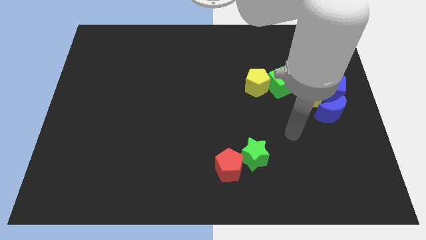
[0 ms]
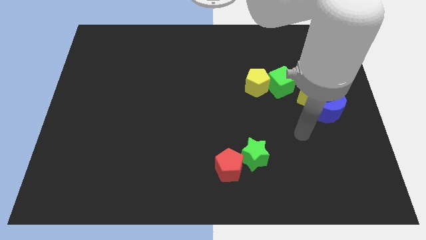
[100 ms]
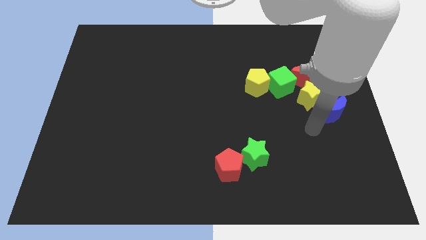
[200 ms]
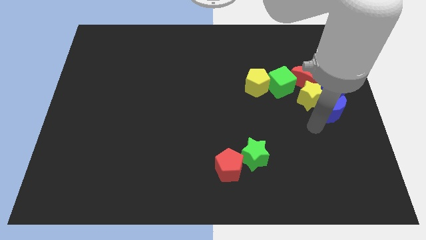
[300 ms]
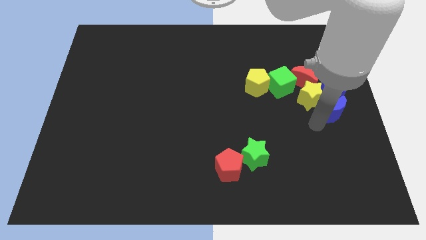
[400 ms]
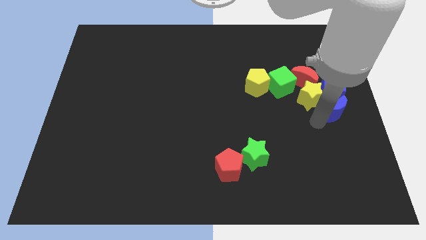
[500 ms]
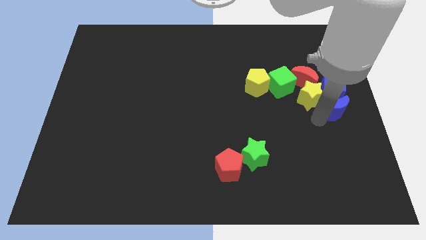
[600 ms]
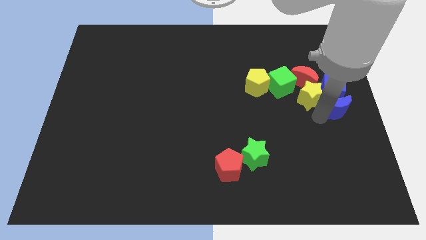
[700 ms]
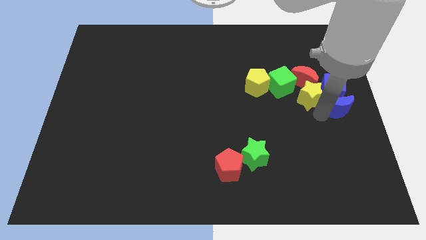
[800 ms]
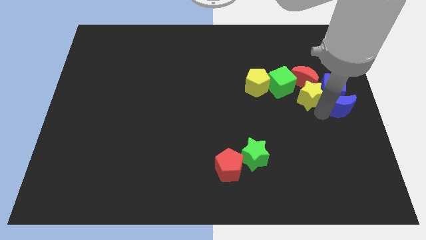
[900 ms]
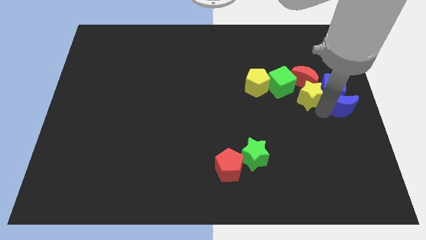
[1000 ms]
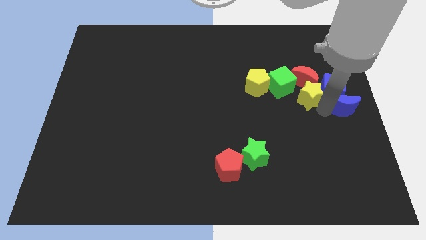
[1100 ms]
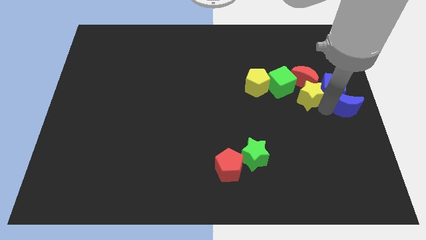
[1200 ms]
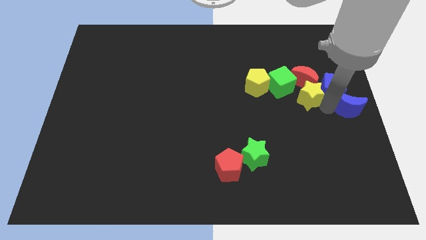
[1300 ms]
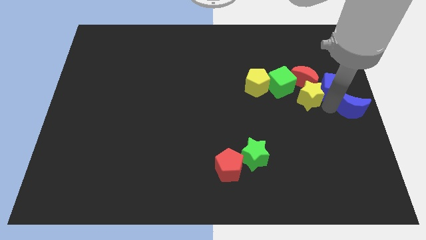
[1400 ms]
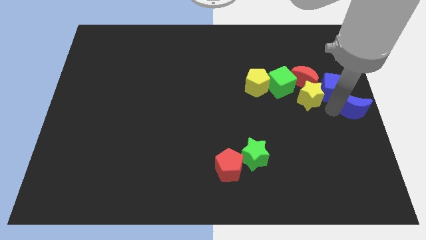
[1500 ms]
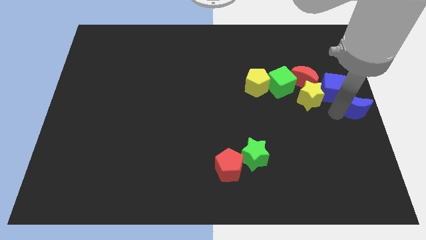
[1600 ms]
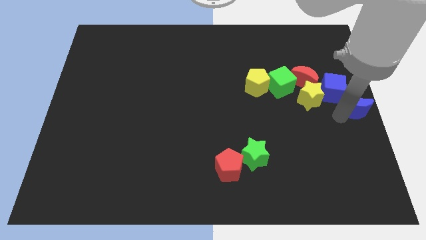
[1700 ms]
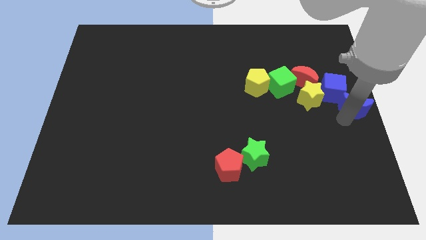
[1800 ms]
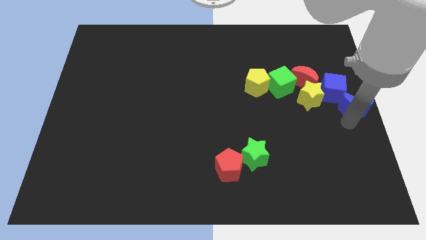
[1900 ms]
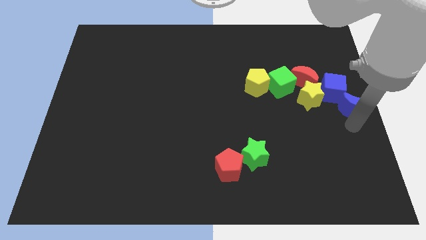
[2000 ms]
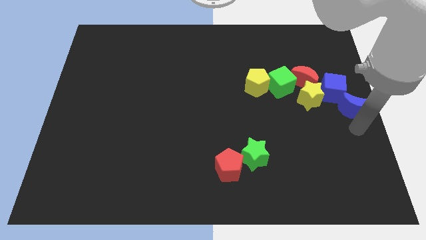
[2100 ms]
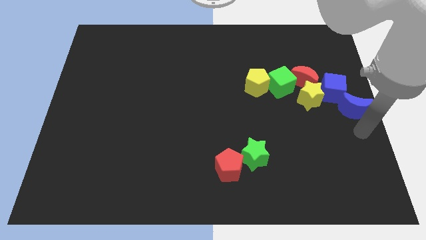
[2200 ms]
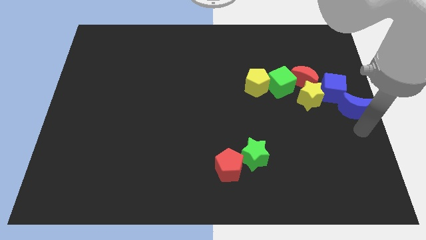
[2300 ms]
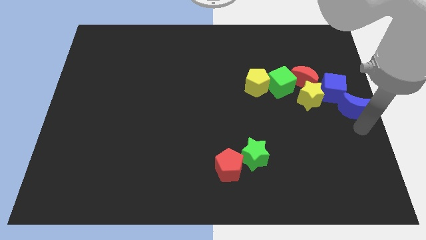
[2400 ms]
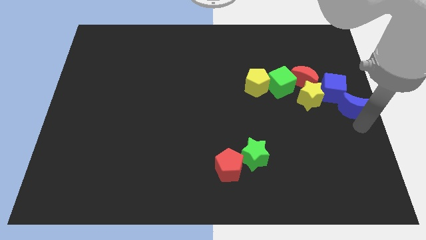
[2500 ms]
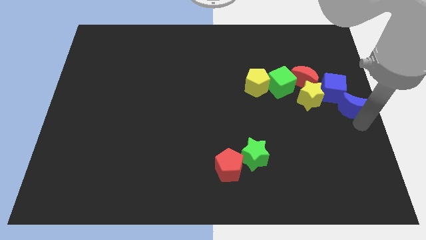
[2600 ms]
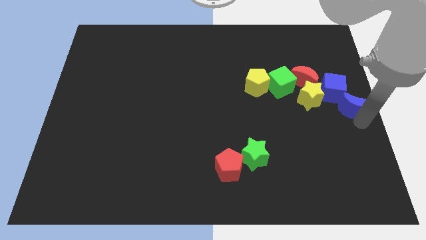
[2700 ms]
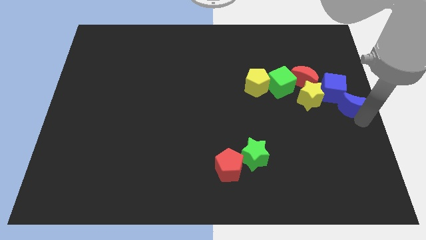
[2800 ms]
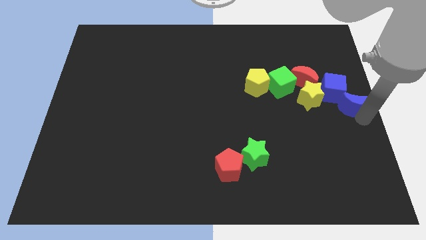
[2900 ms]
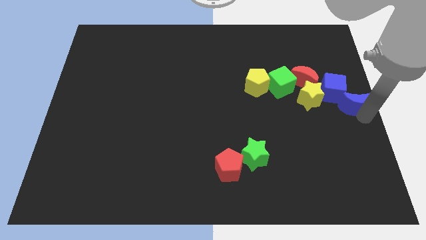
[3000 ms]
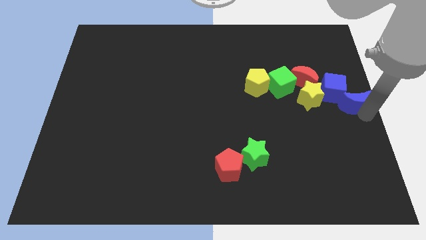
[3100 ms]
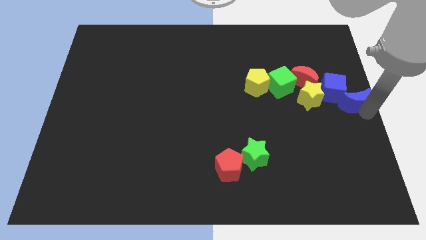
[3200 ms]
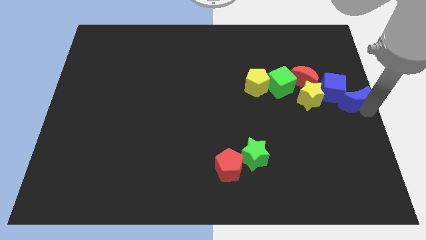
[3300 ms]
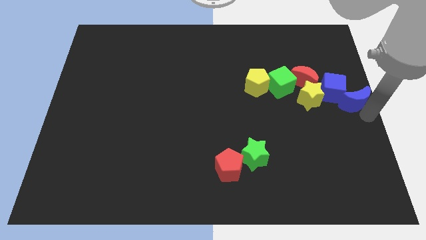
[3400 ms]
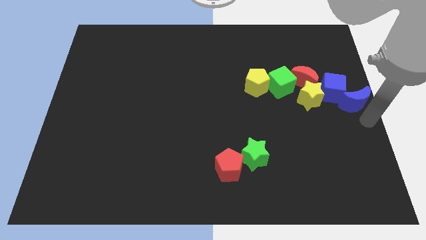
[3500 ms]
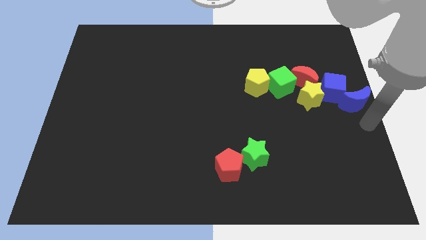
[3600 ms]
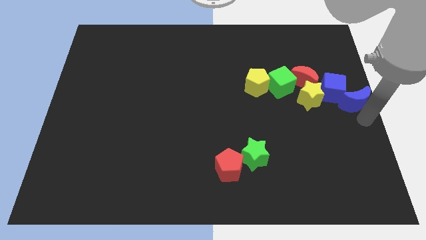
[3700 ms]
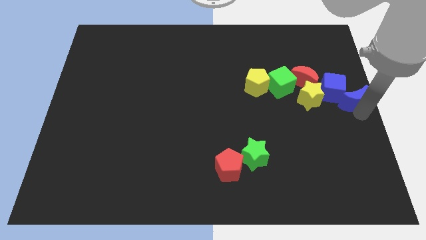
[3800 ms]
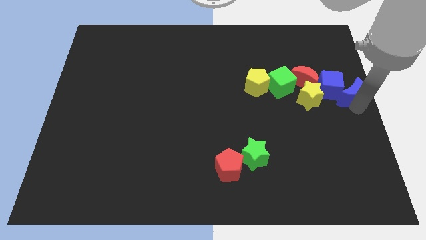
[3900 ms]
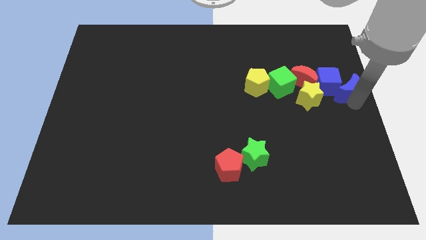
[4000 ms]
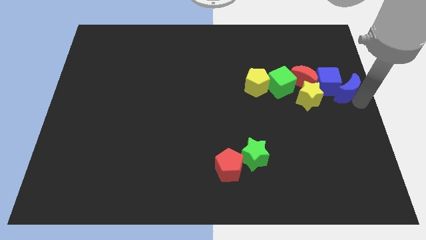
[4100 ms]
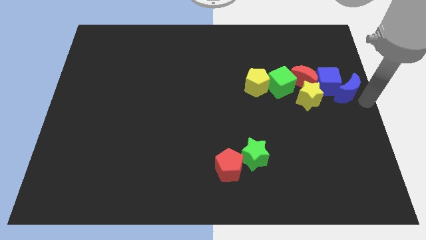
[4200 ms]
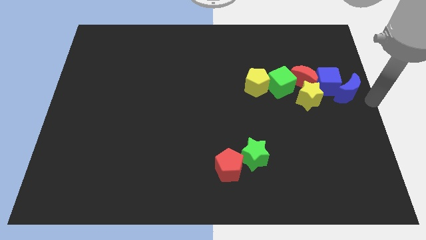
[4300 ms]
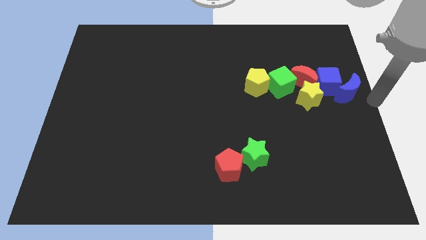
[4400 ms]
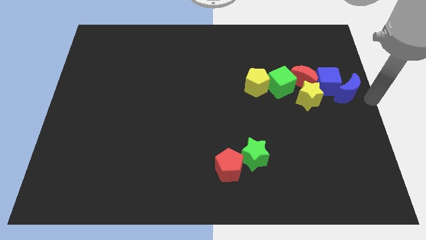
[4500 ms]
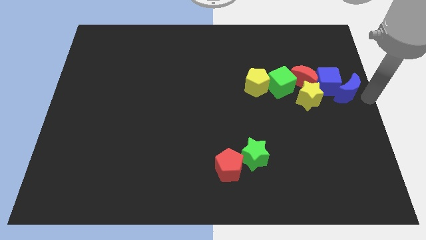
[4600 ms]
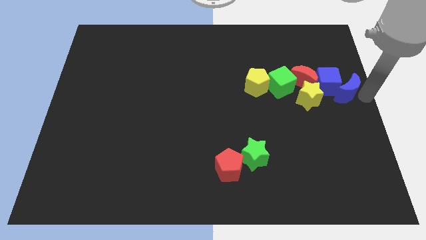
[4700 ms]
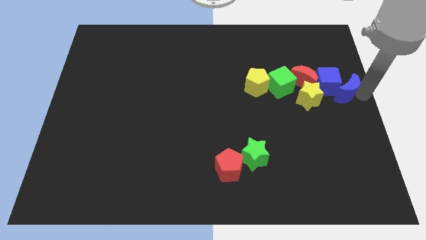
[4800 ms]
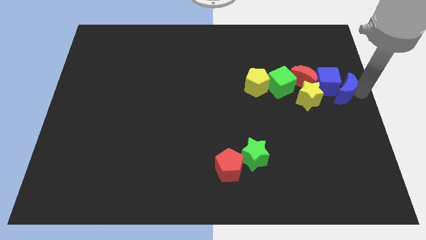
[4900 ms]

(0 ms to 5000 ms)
put the blue moon to the right of the green cube
